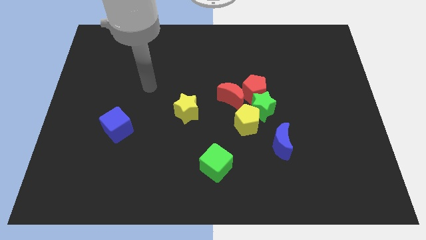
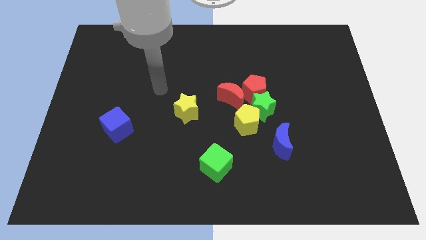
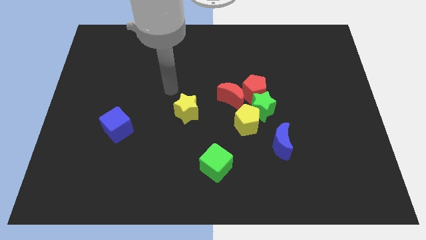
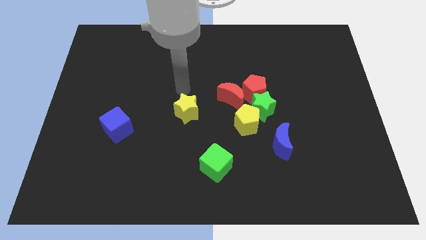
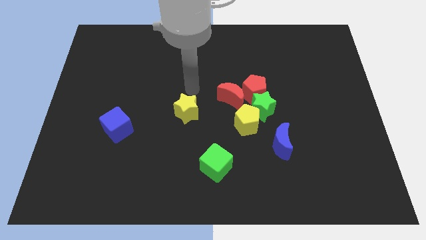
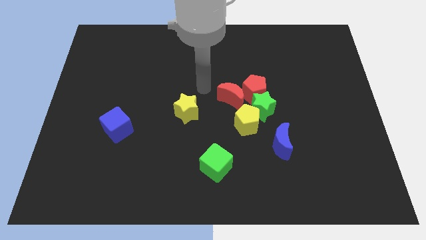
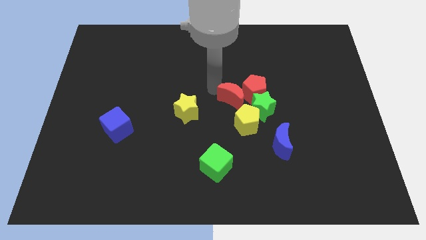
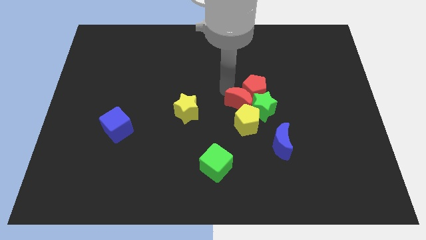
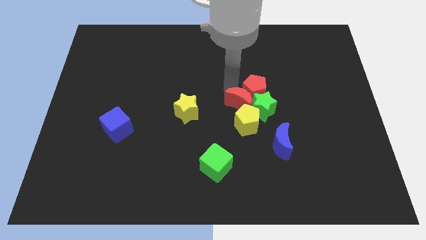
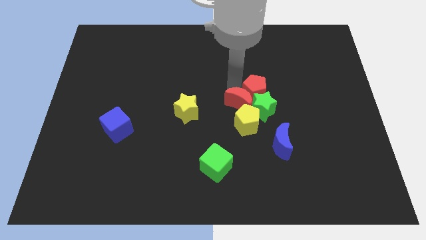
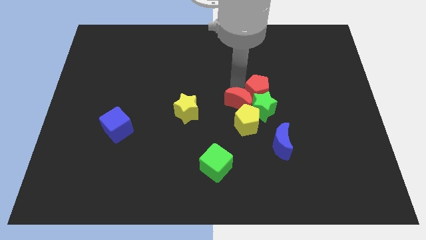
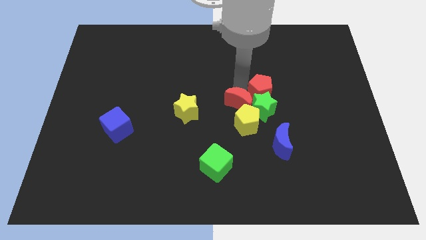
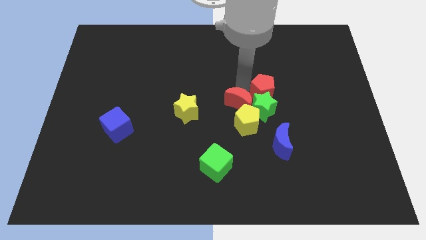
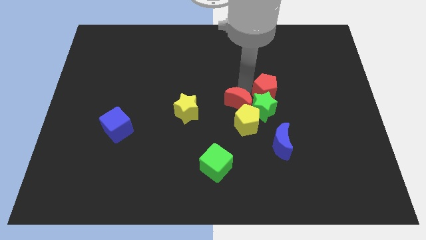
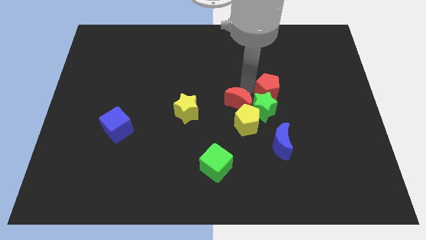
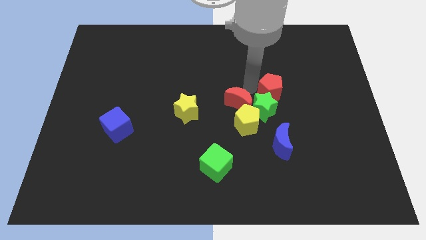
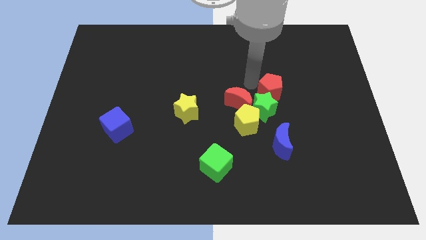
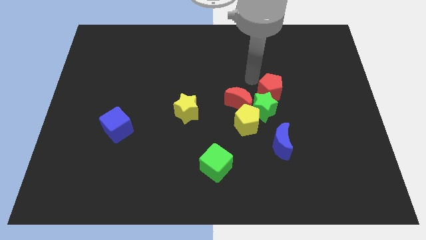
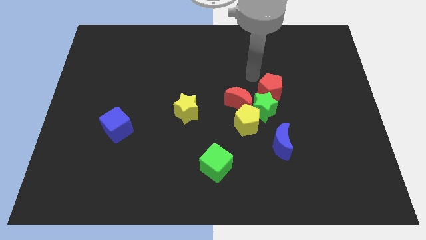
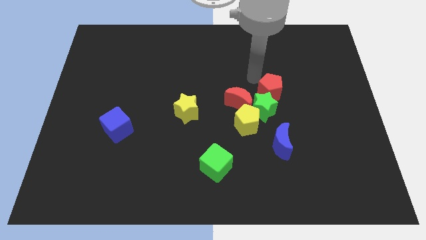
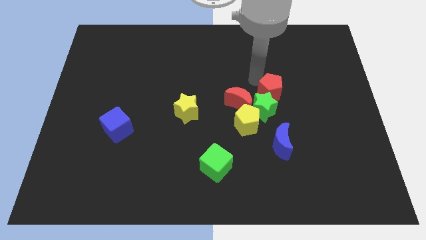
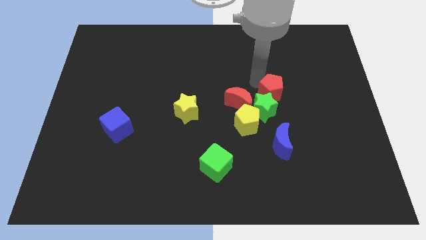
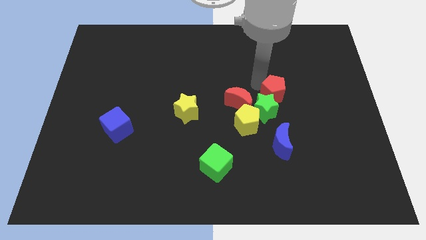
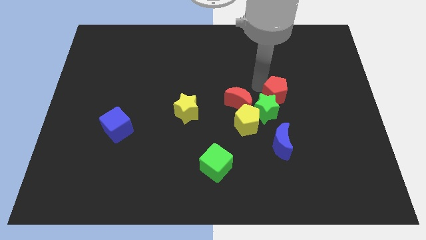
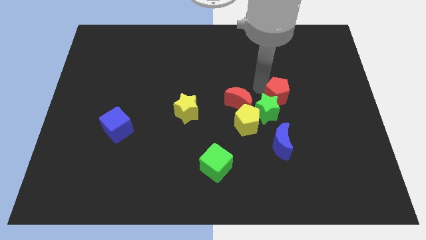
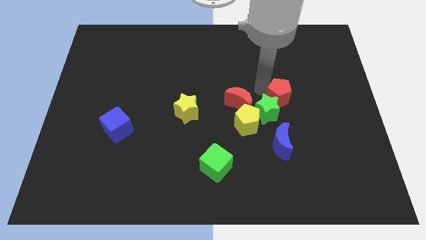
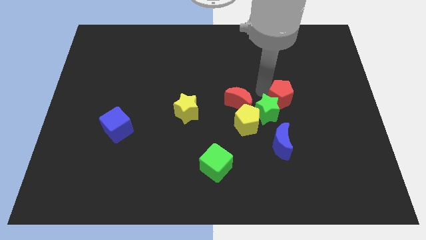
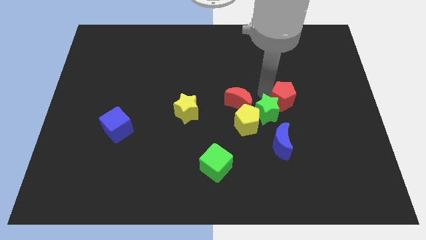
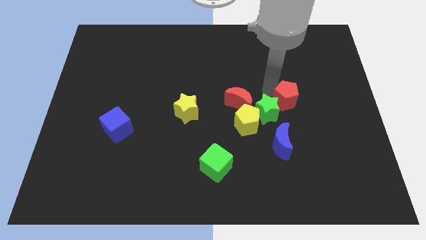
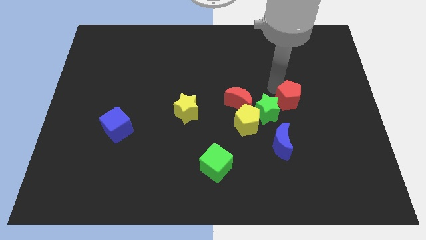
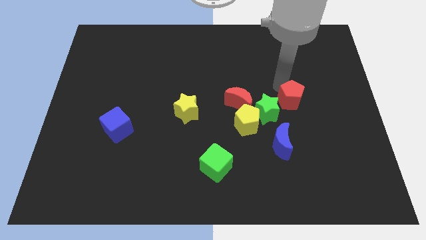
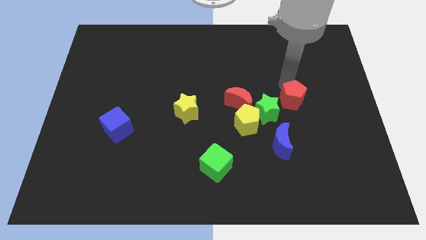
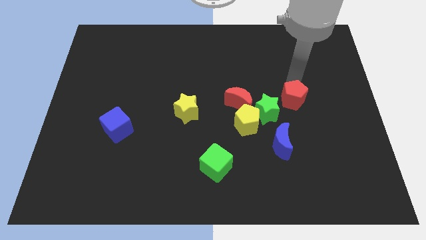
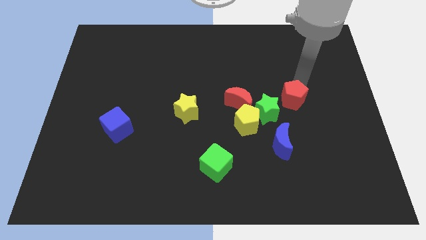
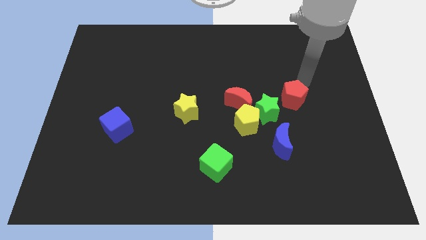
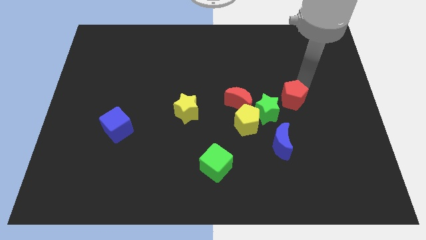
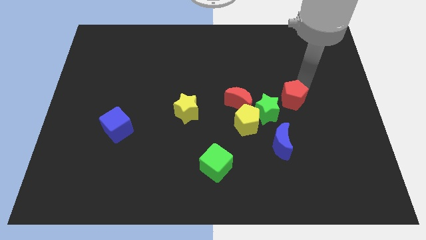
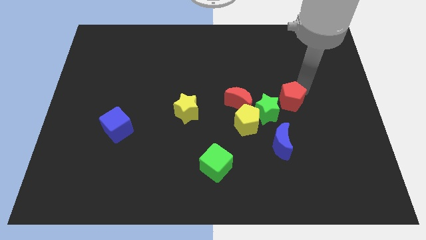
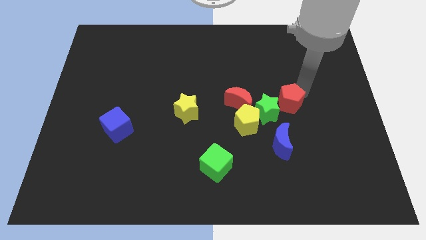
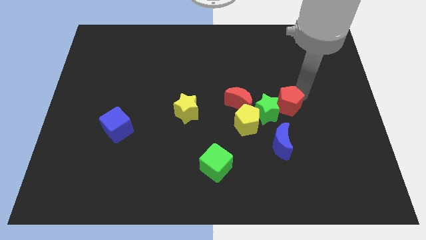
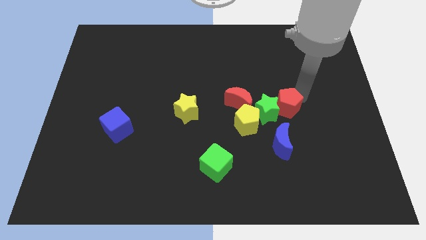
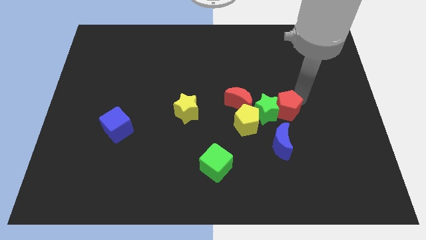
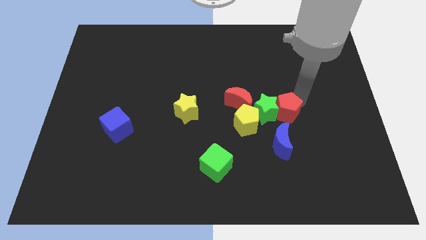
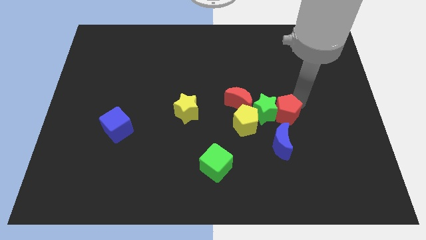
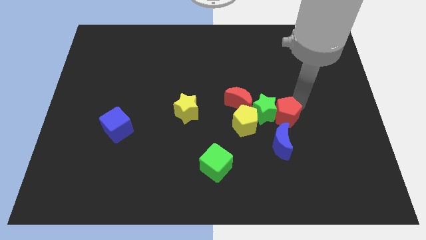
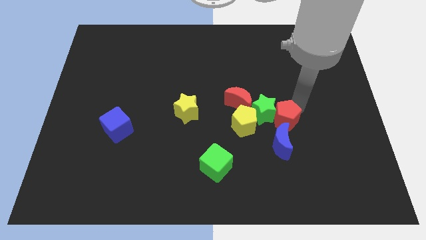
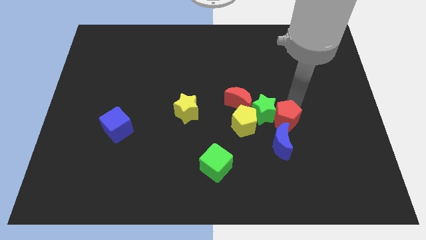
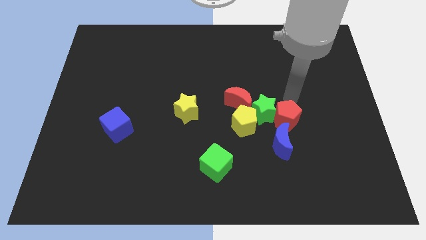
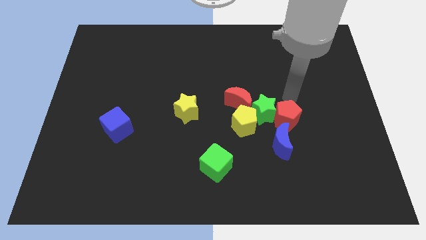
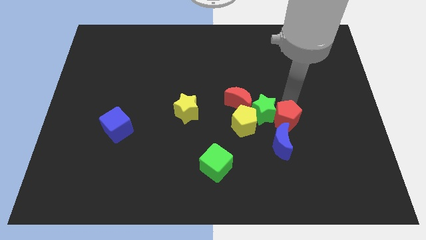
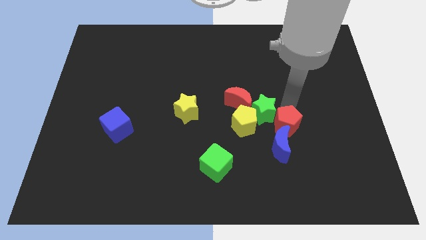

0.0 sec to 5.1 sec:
move the red pentagon towards the blue moon
